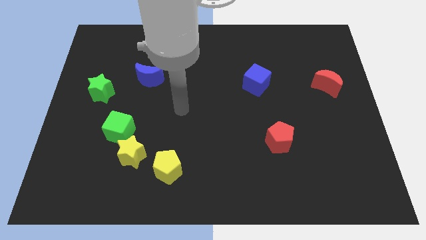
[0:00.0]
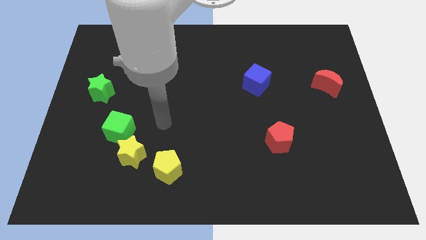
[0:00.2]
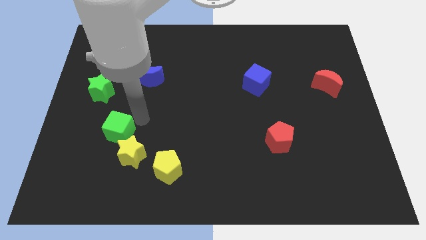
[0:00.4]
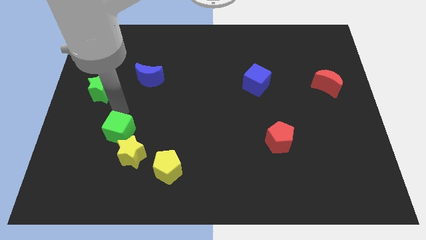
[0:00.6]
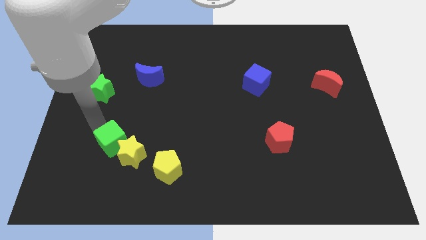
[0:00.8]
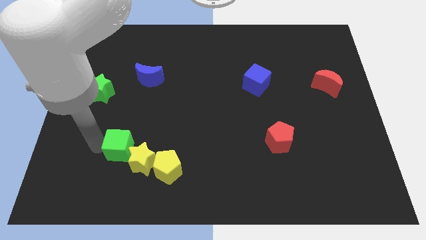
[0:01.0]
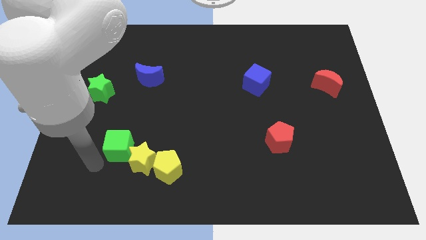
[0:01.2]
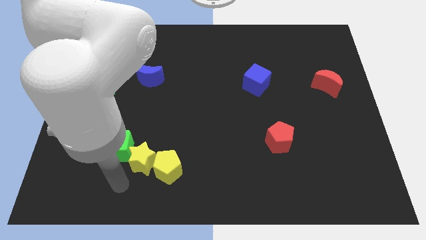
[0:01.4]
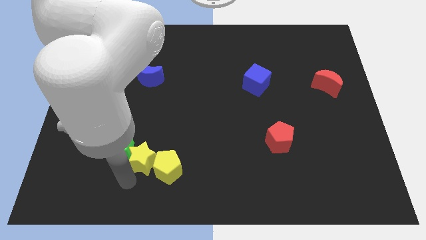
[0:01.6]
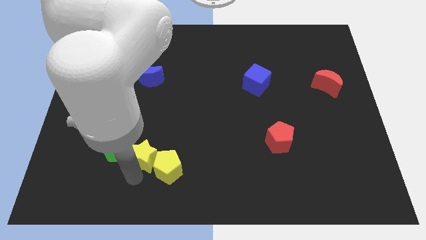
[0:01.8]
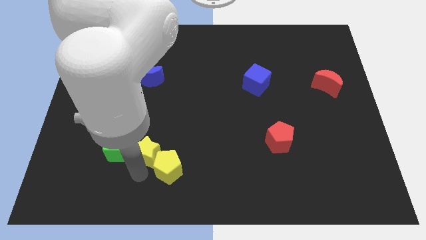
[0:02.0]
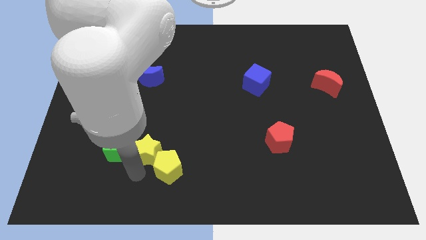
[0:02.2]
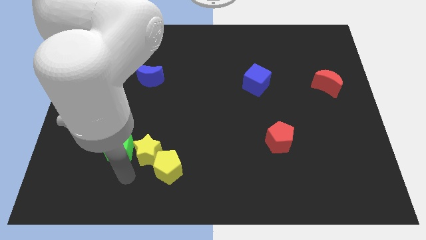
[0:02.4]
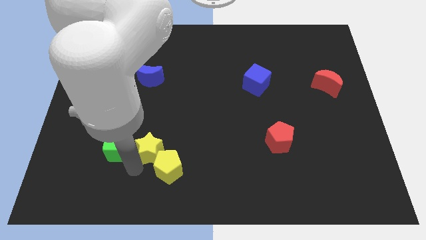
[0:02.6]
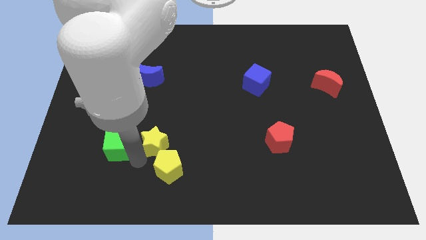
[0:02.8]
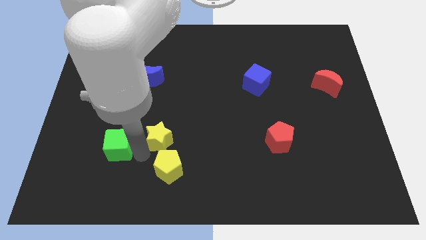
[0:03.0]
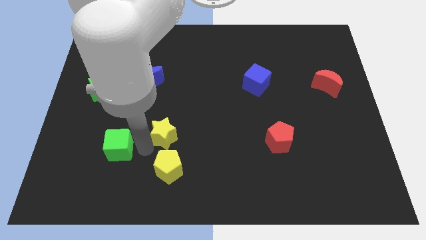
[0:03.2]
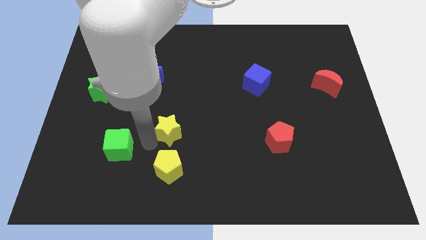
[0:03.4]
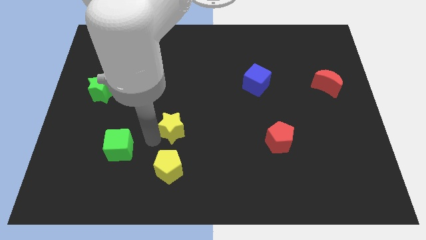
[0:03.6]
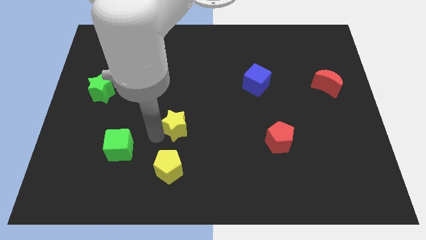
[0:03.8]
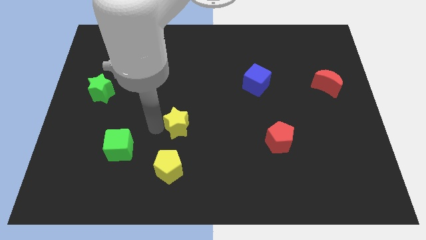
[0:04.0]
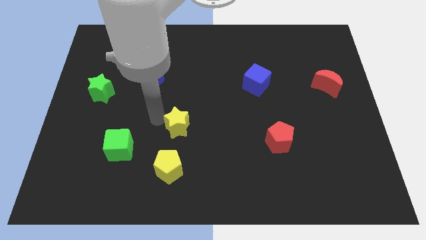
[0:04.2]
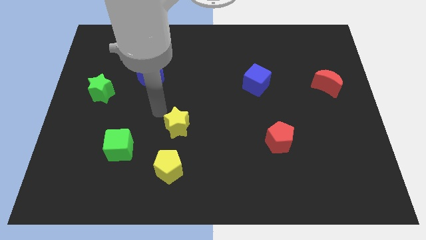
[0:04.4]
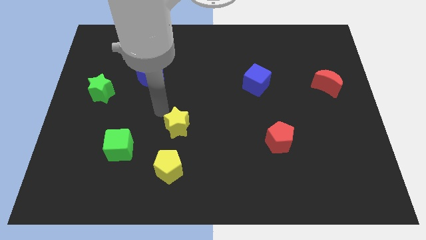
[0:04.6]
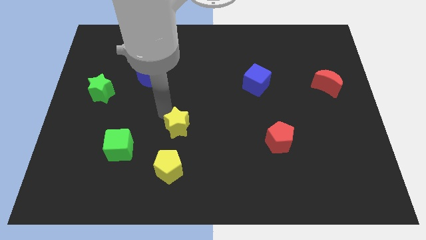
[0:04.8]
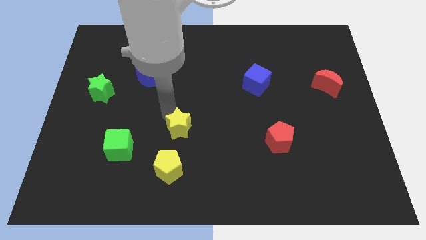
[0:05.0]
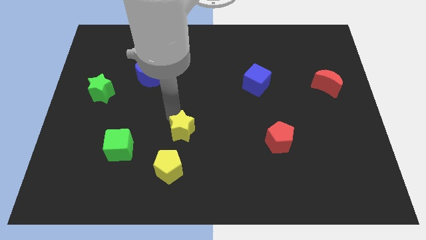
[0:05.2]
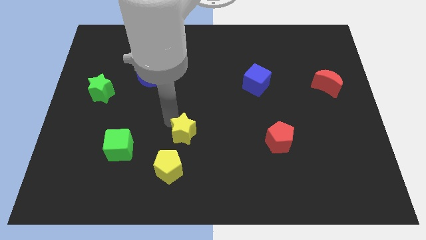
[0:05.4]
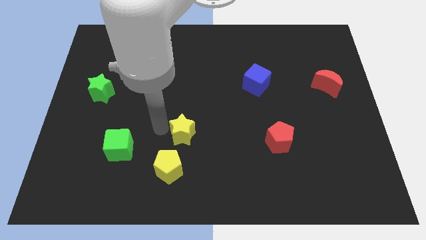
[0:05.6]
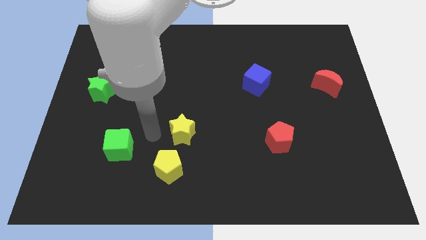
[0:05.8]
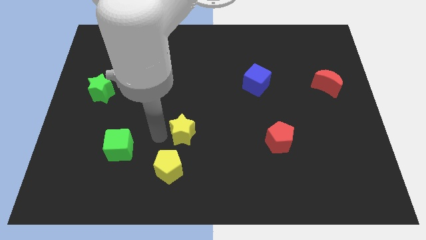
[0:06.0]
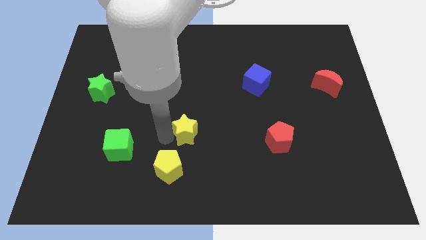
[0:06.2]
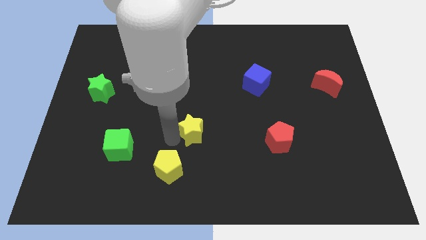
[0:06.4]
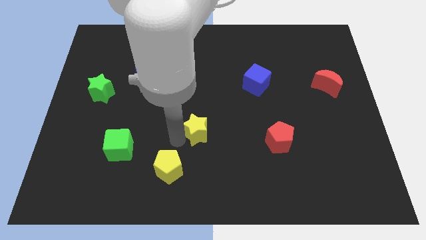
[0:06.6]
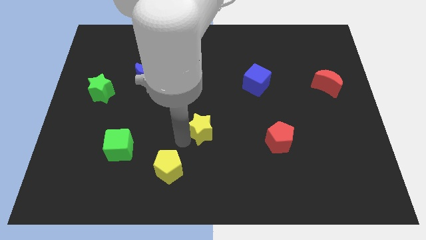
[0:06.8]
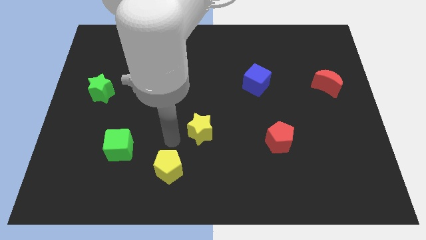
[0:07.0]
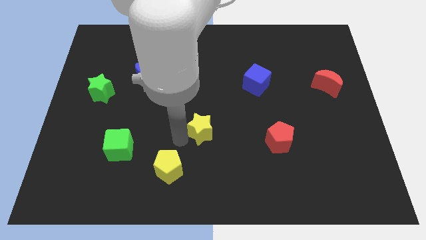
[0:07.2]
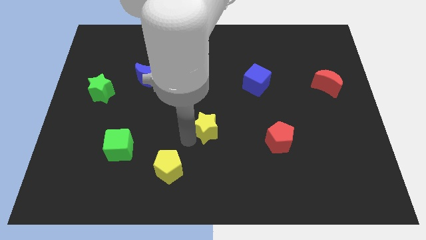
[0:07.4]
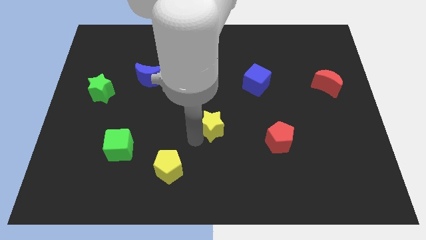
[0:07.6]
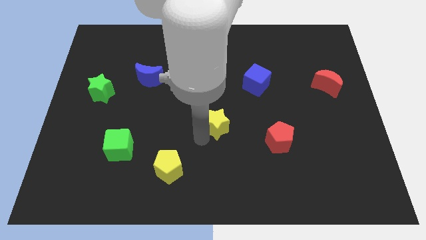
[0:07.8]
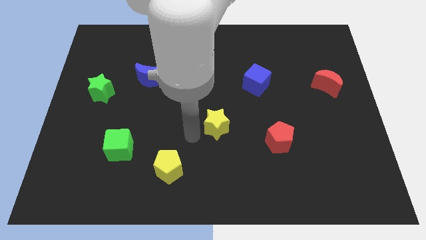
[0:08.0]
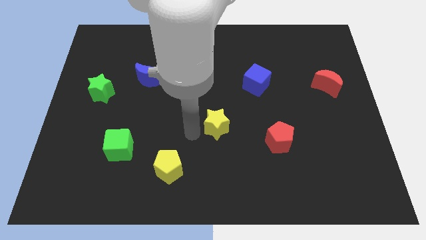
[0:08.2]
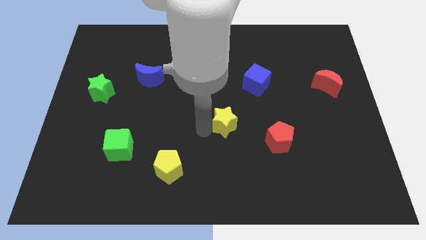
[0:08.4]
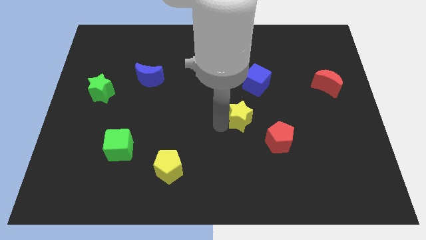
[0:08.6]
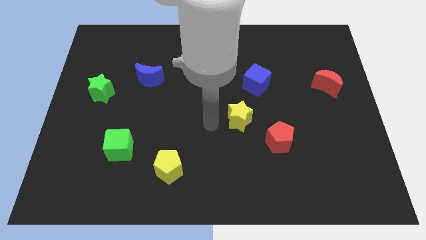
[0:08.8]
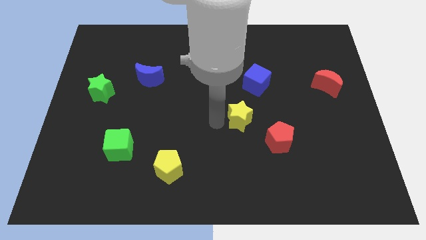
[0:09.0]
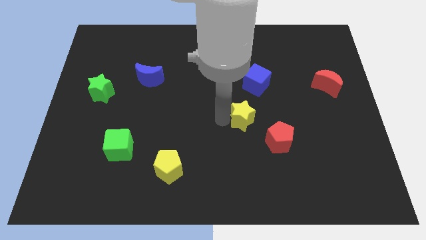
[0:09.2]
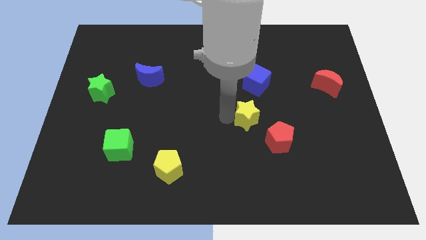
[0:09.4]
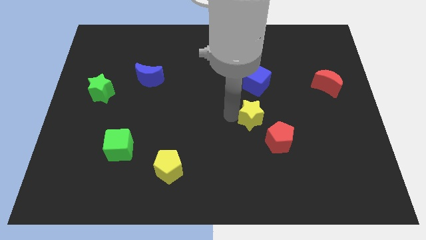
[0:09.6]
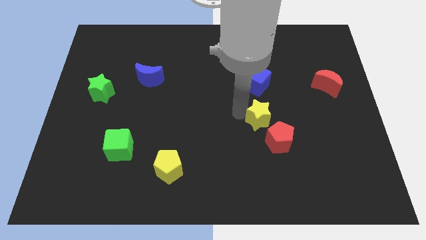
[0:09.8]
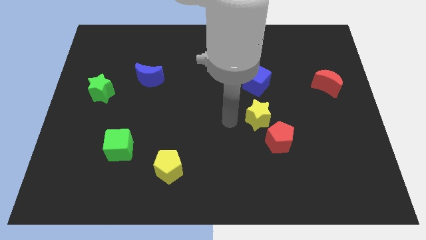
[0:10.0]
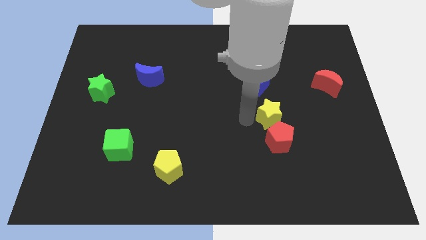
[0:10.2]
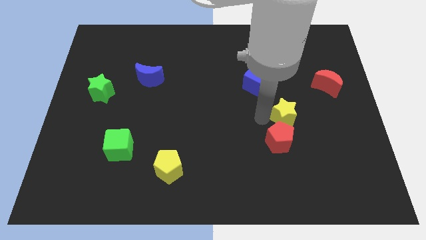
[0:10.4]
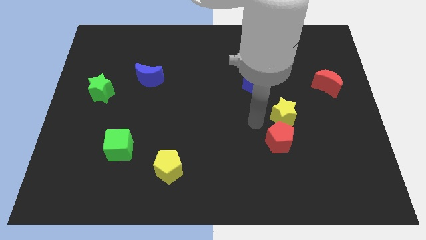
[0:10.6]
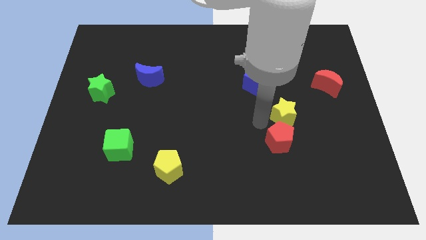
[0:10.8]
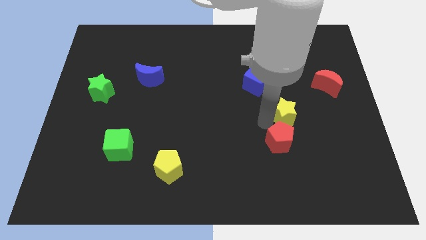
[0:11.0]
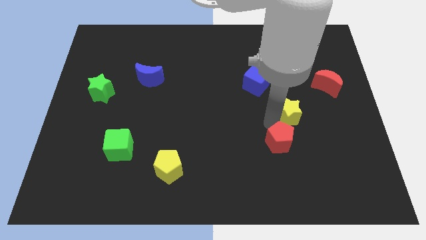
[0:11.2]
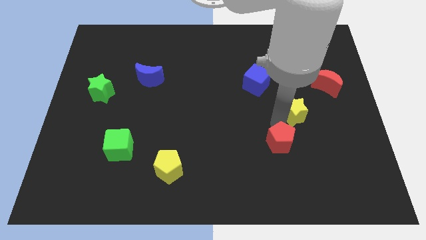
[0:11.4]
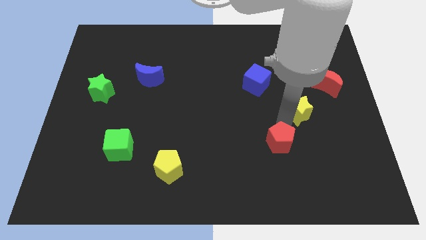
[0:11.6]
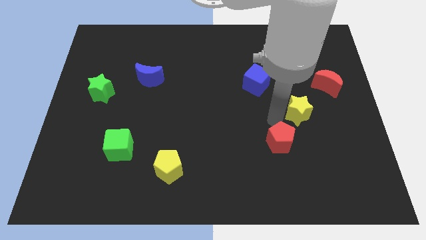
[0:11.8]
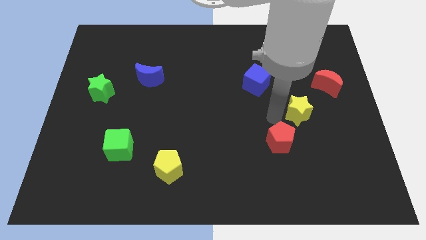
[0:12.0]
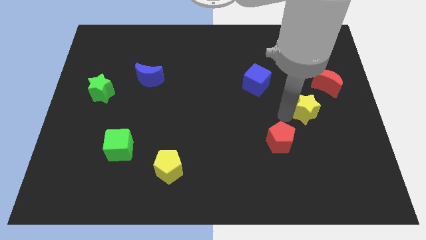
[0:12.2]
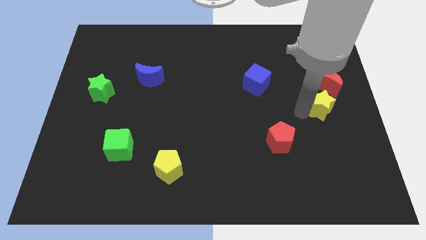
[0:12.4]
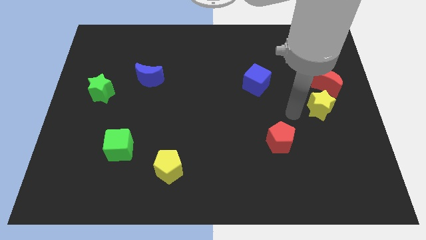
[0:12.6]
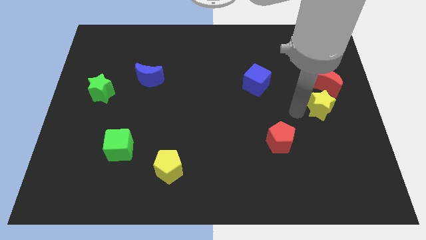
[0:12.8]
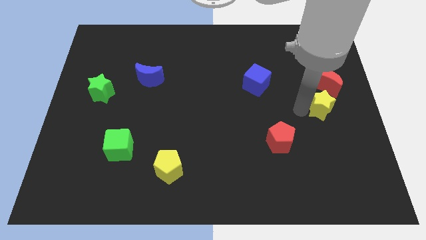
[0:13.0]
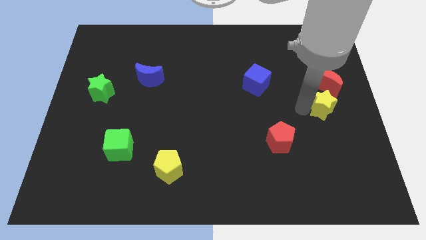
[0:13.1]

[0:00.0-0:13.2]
slide the yellow star to the right side
